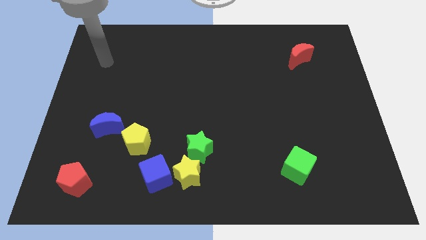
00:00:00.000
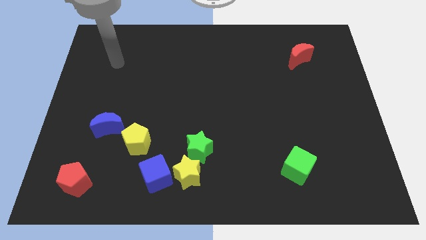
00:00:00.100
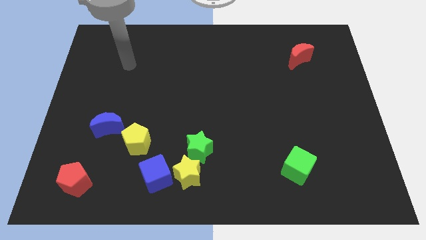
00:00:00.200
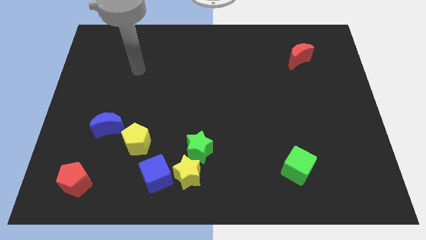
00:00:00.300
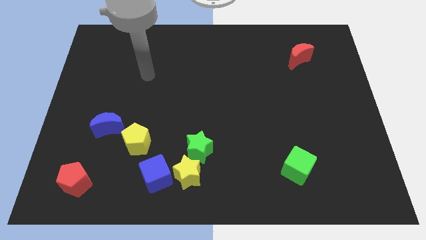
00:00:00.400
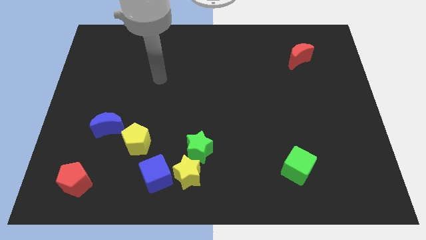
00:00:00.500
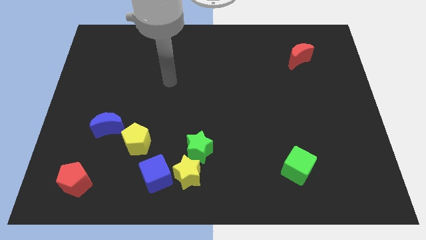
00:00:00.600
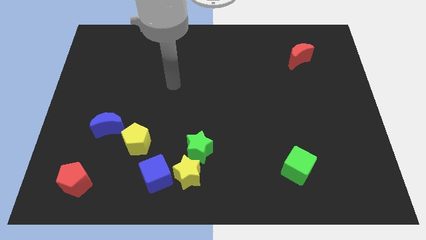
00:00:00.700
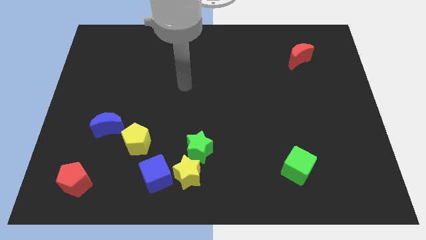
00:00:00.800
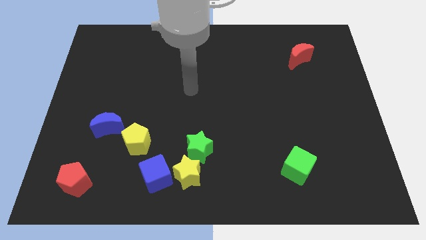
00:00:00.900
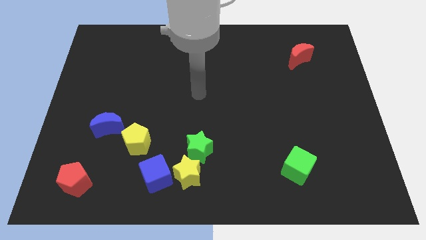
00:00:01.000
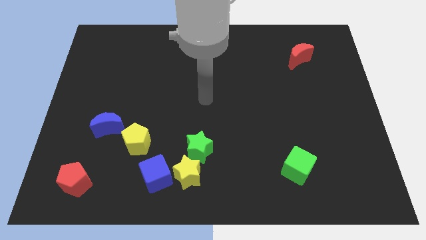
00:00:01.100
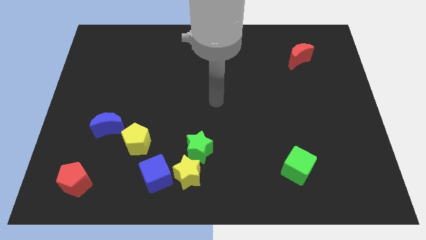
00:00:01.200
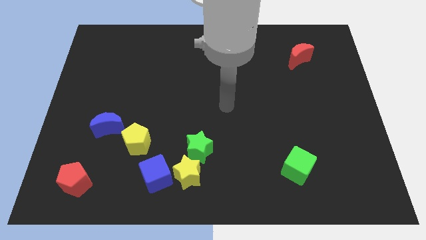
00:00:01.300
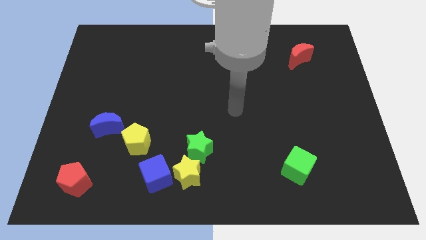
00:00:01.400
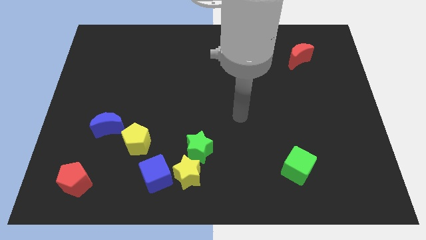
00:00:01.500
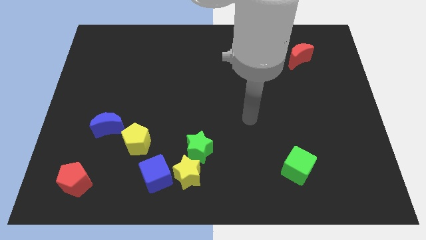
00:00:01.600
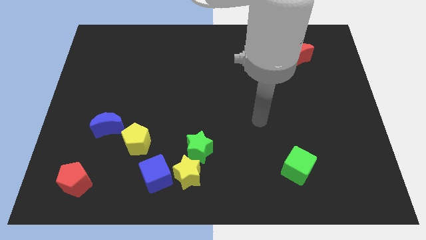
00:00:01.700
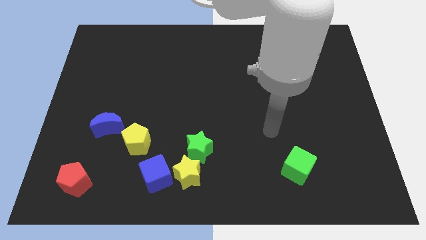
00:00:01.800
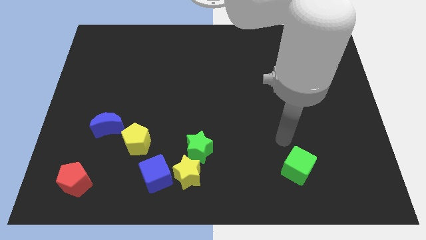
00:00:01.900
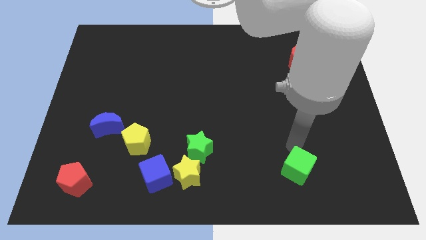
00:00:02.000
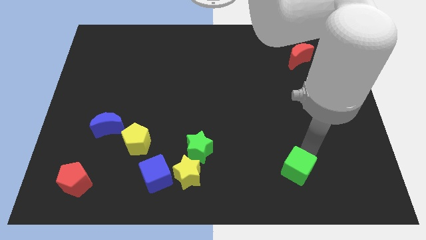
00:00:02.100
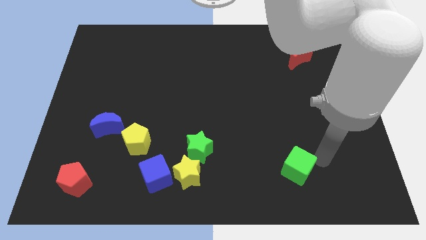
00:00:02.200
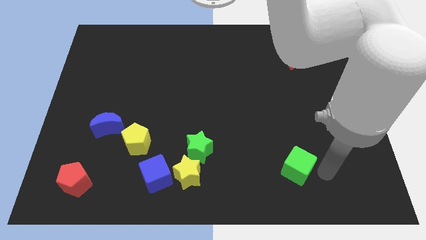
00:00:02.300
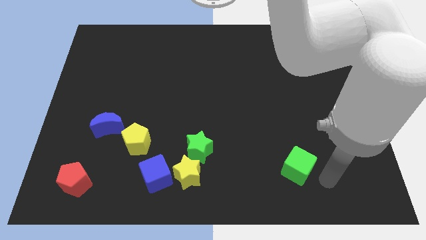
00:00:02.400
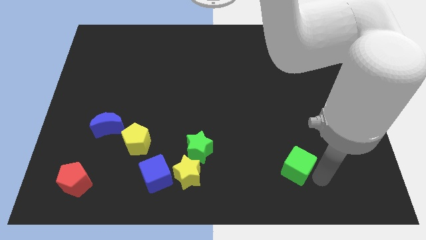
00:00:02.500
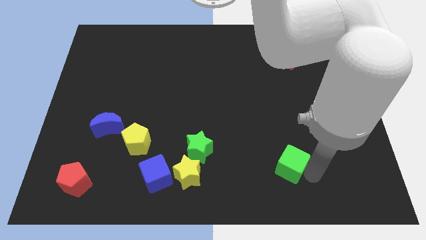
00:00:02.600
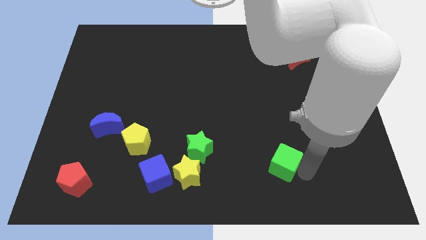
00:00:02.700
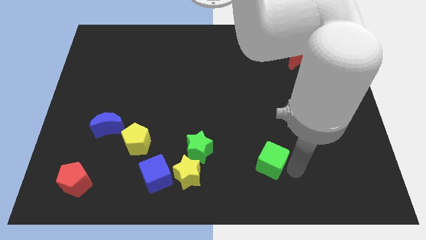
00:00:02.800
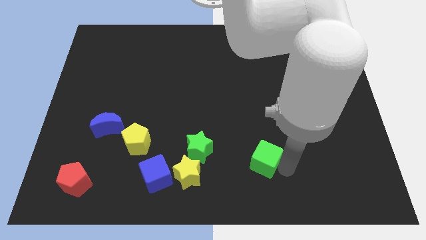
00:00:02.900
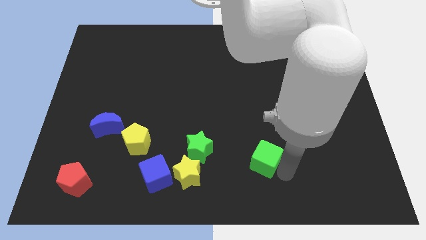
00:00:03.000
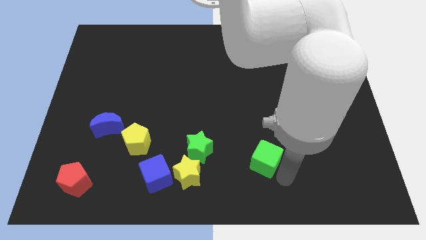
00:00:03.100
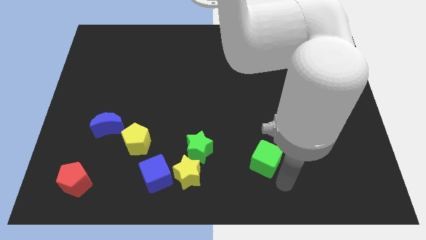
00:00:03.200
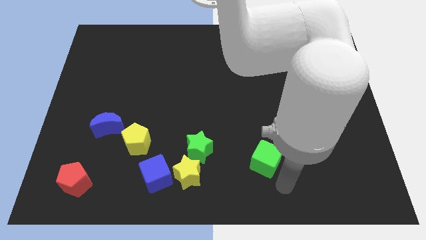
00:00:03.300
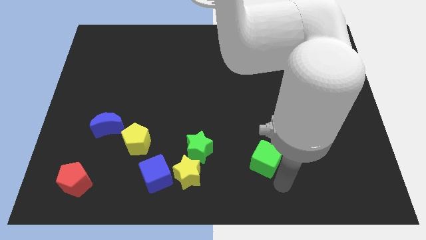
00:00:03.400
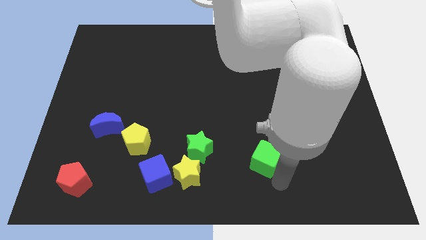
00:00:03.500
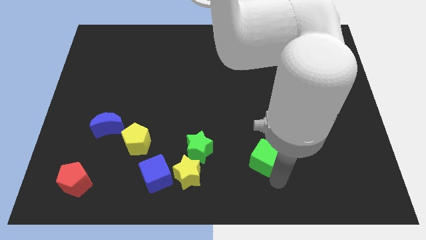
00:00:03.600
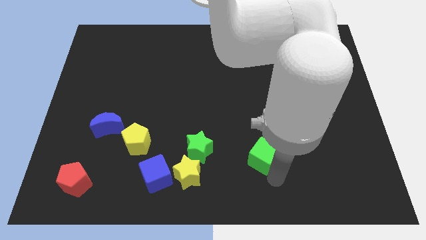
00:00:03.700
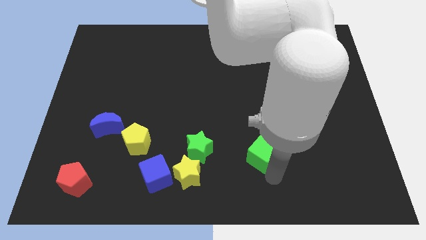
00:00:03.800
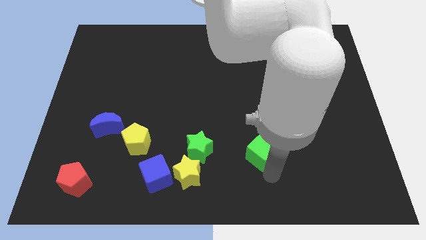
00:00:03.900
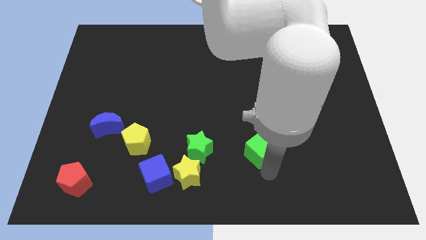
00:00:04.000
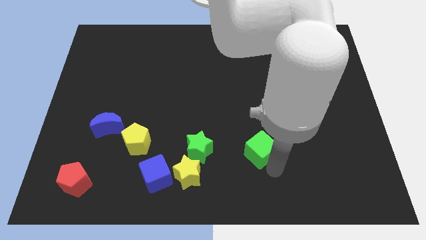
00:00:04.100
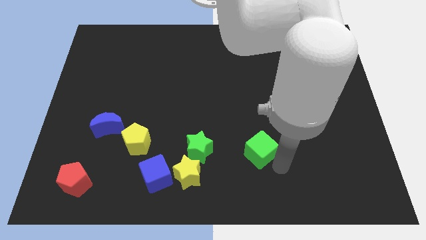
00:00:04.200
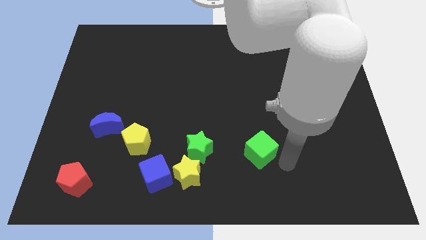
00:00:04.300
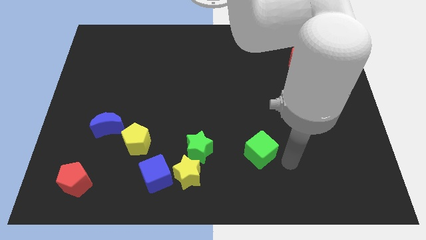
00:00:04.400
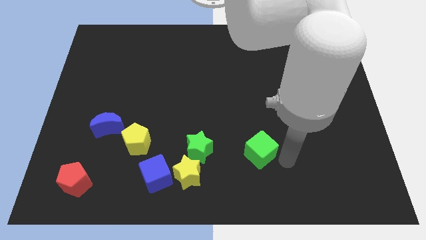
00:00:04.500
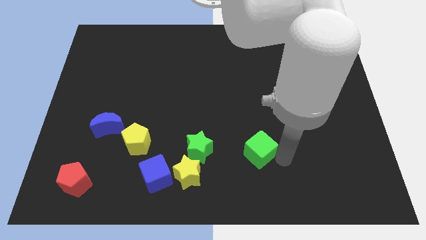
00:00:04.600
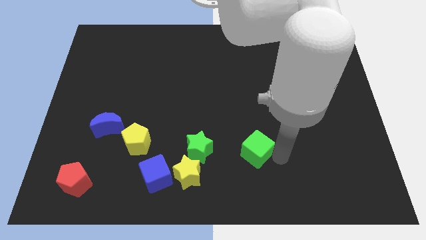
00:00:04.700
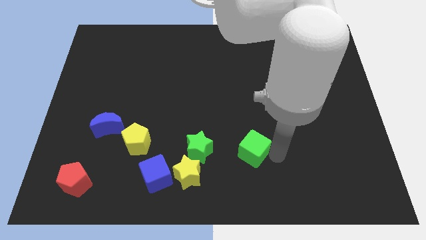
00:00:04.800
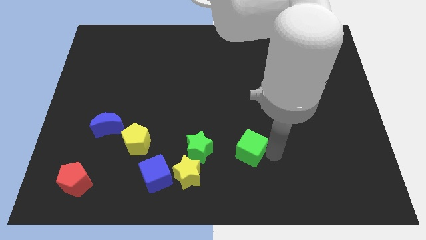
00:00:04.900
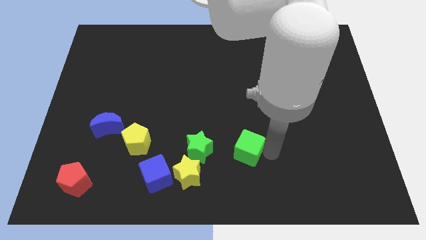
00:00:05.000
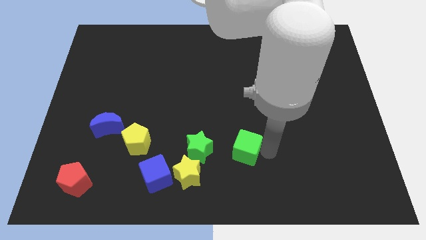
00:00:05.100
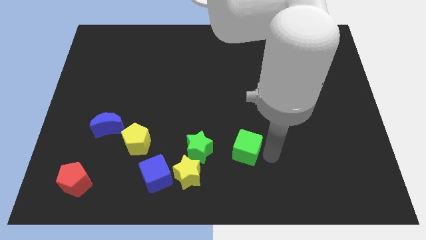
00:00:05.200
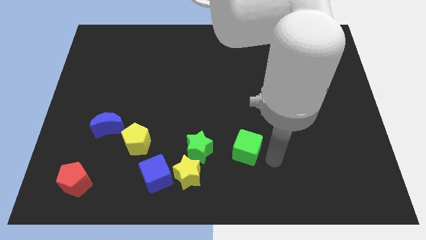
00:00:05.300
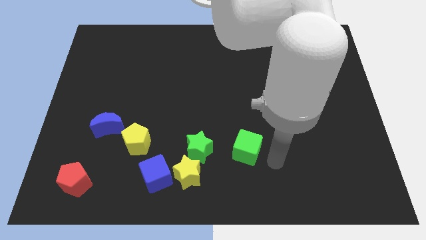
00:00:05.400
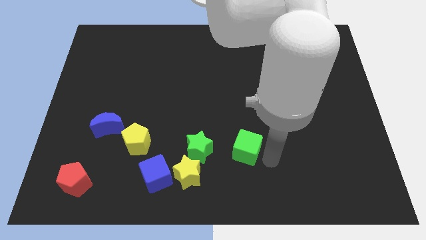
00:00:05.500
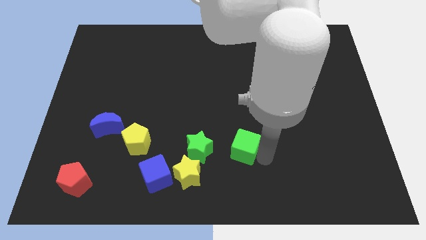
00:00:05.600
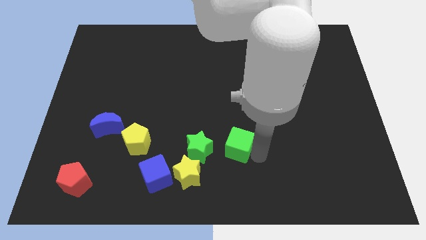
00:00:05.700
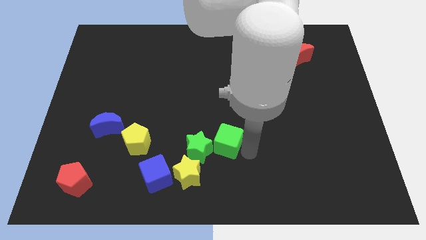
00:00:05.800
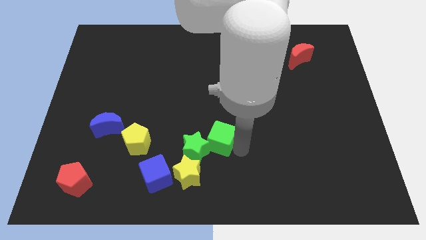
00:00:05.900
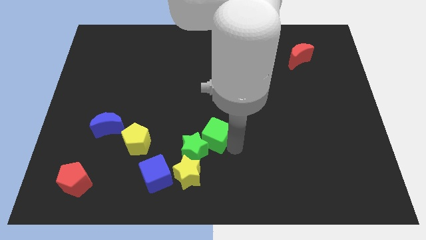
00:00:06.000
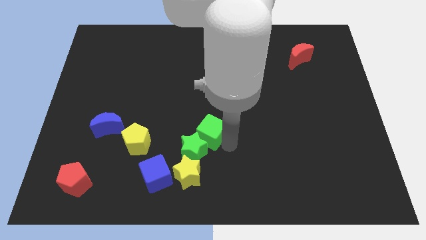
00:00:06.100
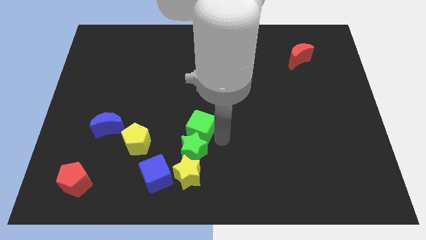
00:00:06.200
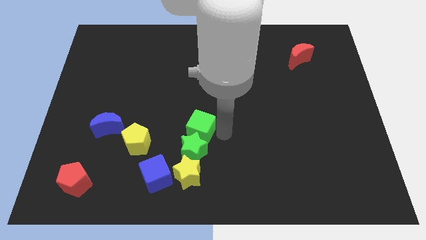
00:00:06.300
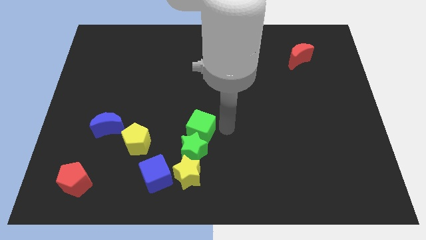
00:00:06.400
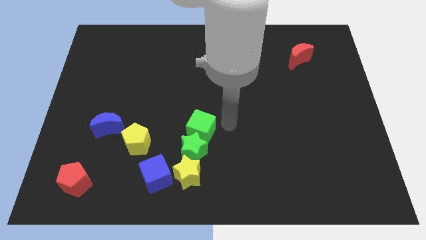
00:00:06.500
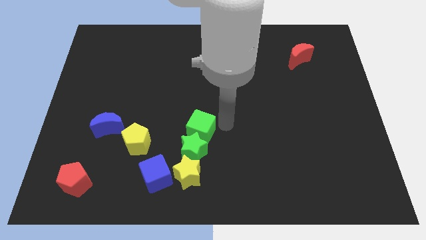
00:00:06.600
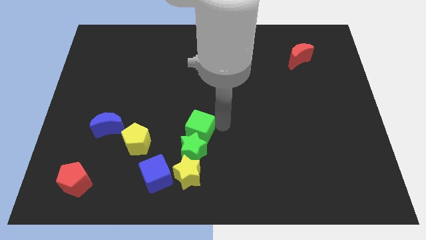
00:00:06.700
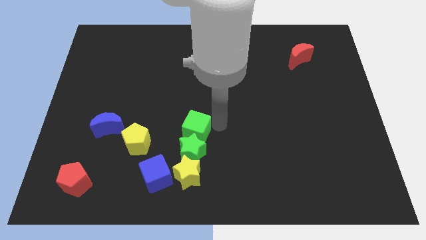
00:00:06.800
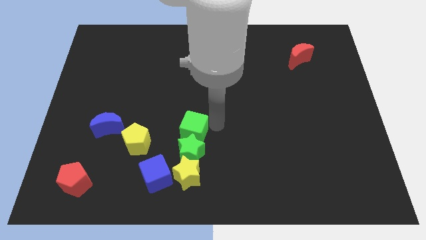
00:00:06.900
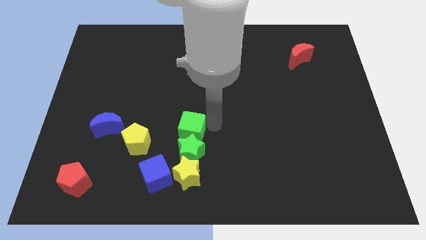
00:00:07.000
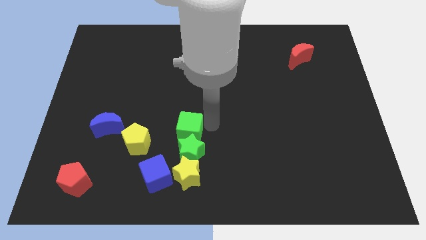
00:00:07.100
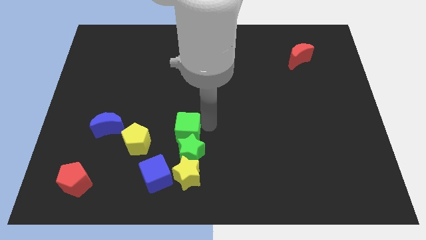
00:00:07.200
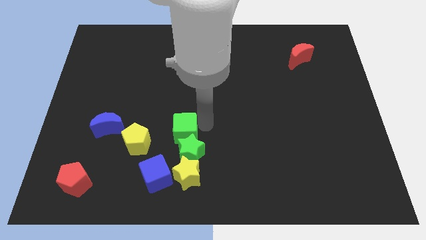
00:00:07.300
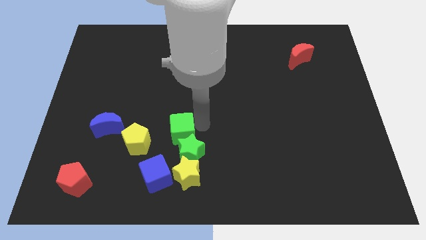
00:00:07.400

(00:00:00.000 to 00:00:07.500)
move the green cube above the blue cube
